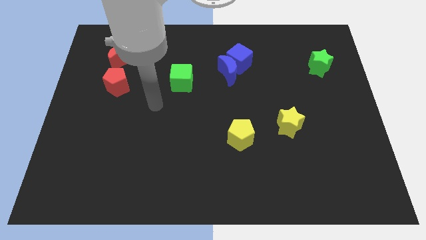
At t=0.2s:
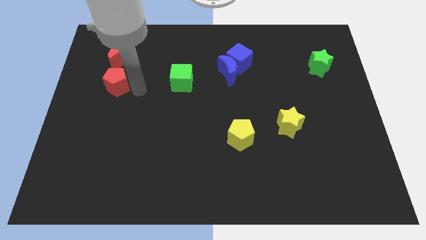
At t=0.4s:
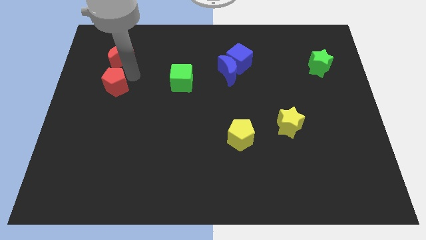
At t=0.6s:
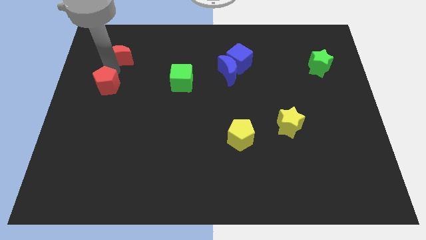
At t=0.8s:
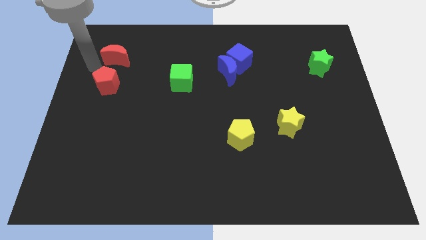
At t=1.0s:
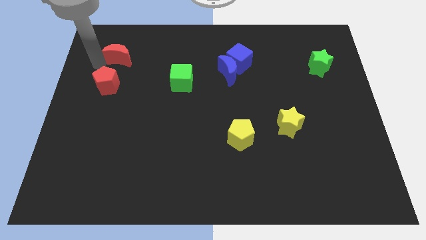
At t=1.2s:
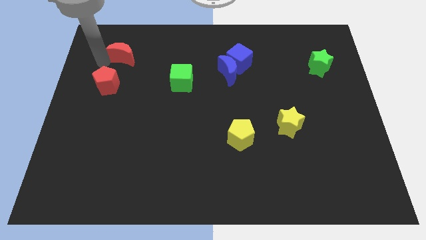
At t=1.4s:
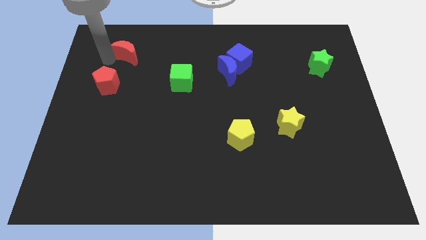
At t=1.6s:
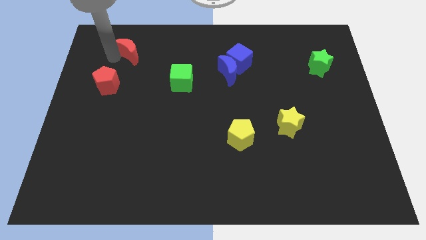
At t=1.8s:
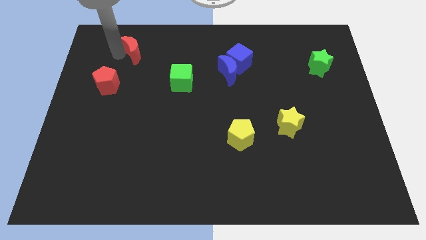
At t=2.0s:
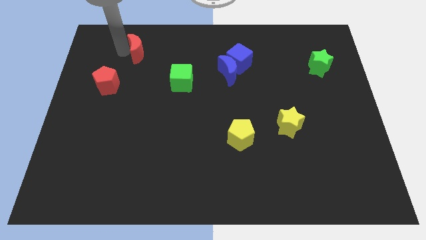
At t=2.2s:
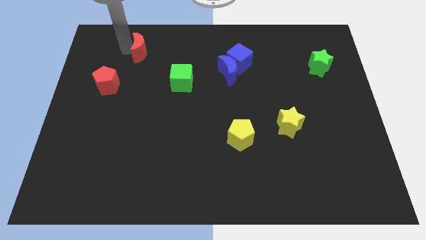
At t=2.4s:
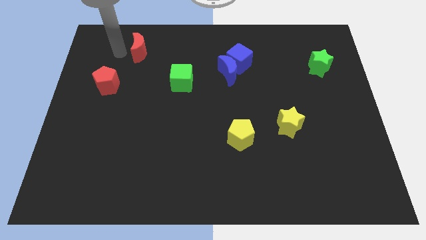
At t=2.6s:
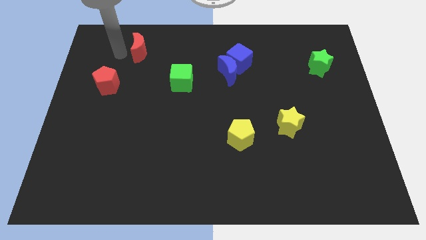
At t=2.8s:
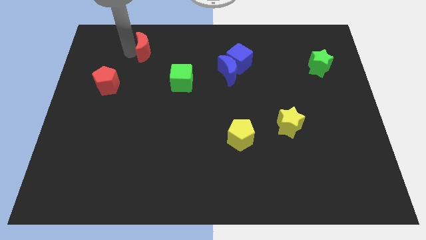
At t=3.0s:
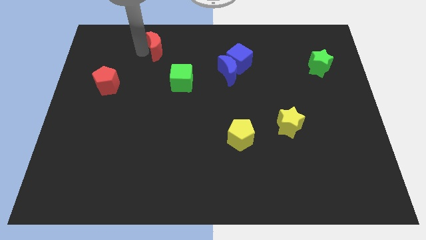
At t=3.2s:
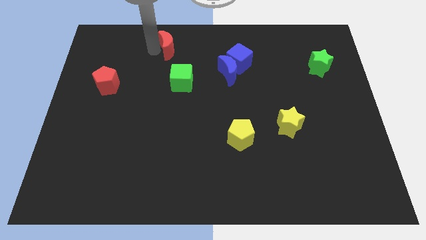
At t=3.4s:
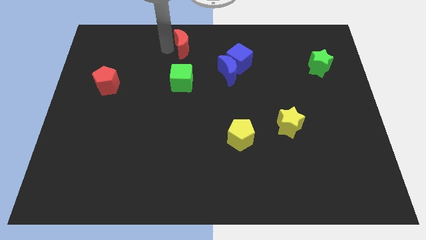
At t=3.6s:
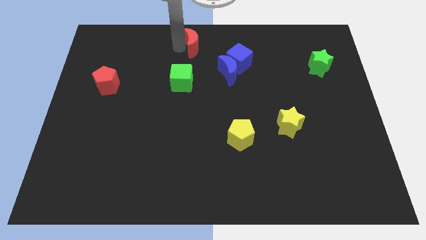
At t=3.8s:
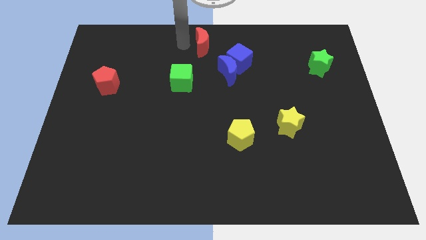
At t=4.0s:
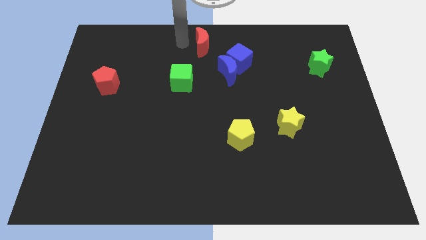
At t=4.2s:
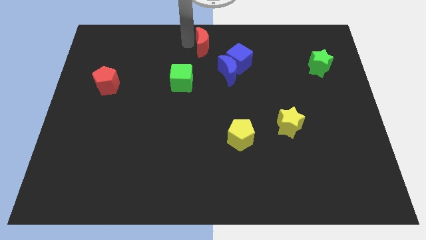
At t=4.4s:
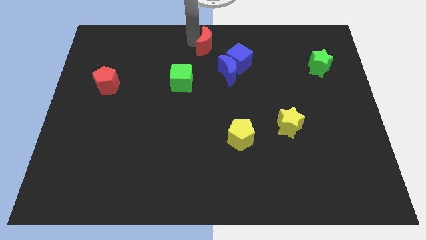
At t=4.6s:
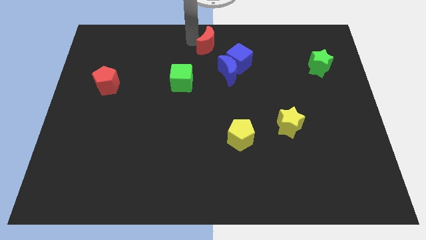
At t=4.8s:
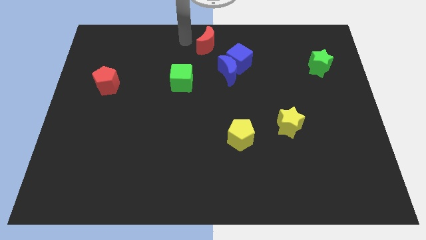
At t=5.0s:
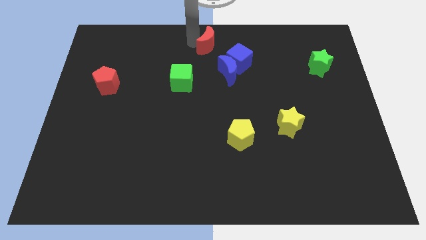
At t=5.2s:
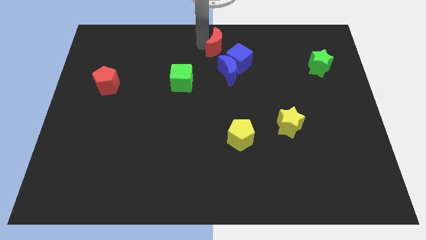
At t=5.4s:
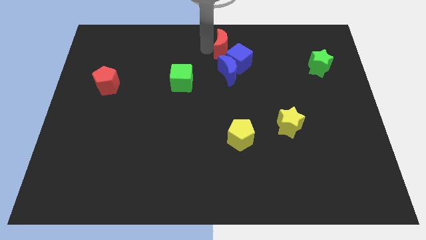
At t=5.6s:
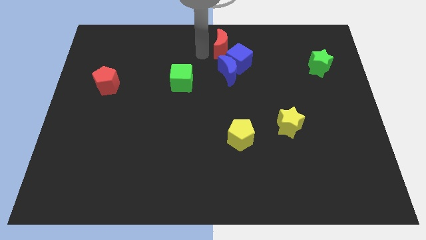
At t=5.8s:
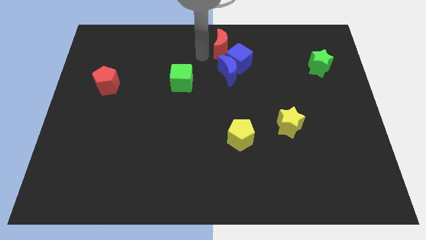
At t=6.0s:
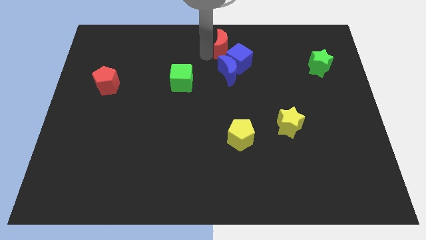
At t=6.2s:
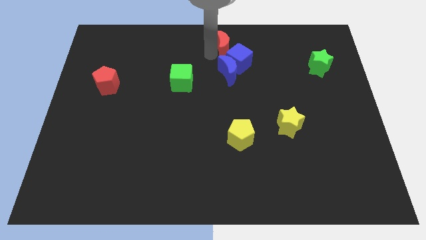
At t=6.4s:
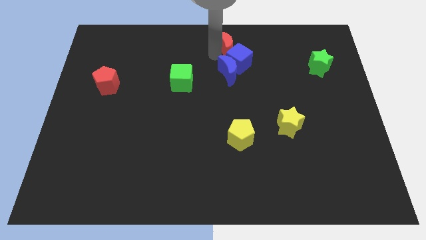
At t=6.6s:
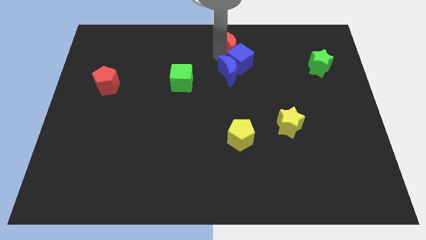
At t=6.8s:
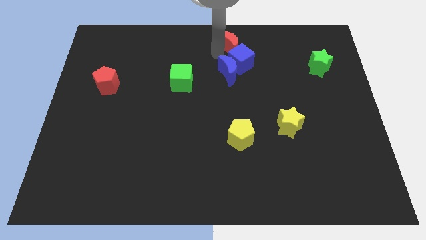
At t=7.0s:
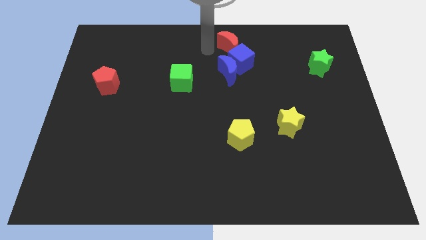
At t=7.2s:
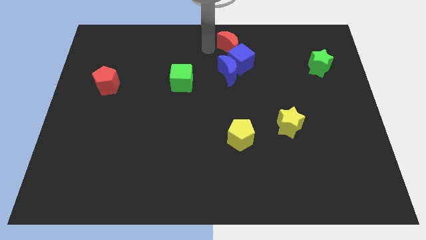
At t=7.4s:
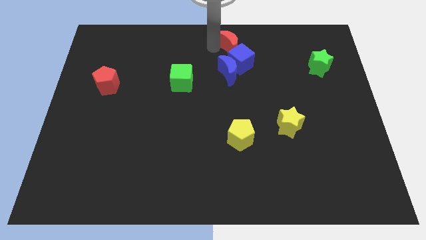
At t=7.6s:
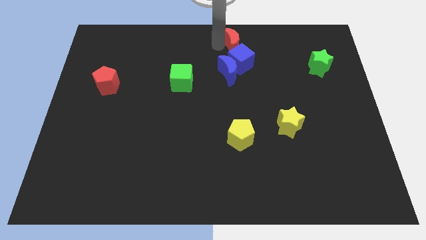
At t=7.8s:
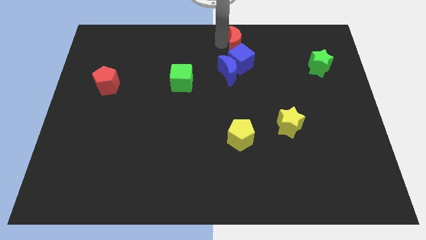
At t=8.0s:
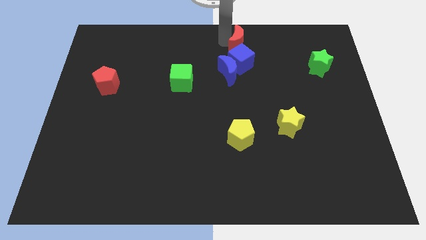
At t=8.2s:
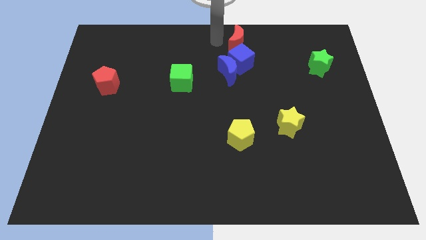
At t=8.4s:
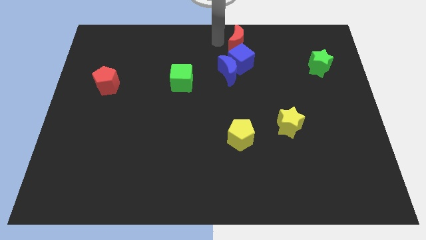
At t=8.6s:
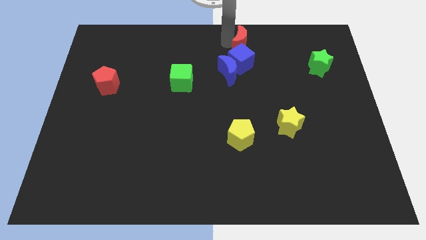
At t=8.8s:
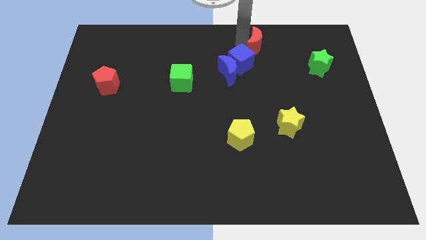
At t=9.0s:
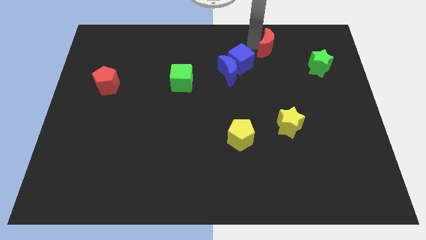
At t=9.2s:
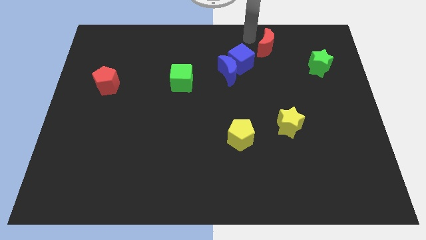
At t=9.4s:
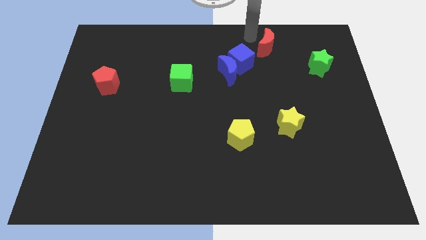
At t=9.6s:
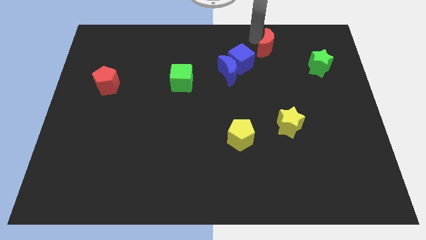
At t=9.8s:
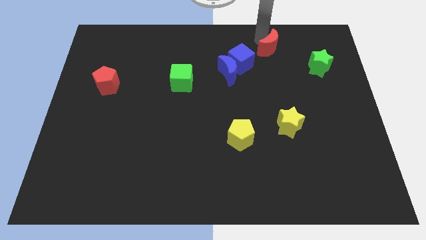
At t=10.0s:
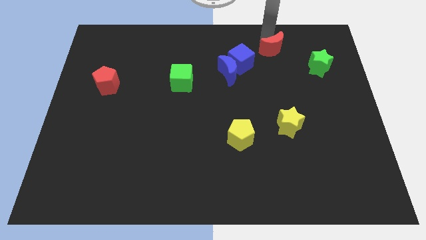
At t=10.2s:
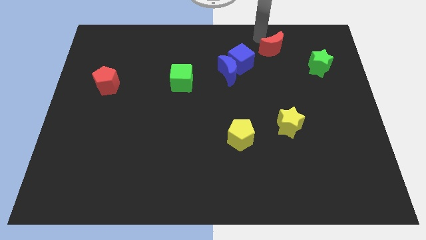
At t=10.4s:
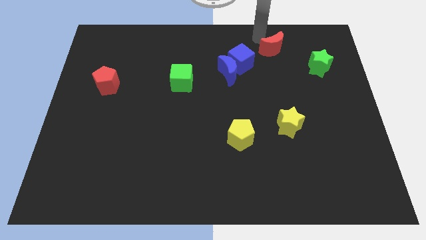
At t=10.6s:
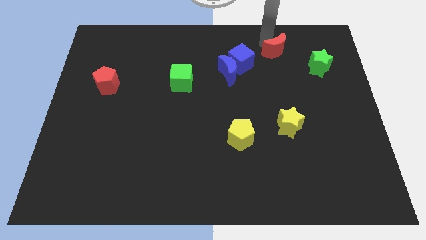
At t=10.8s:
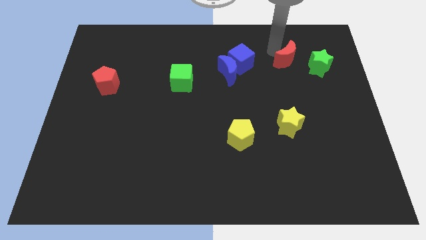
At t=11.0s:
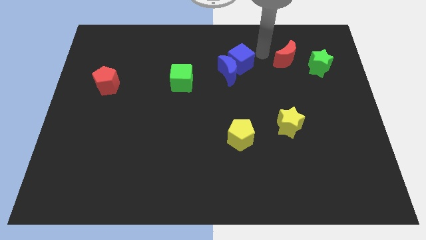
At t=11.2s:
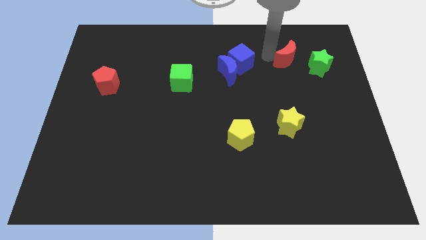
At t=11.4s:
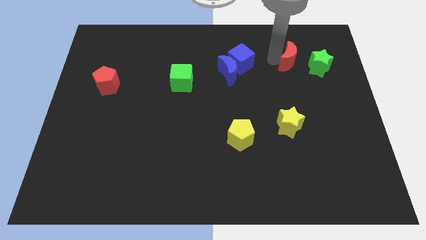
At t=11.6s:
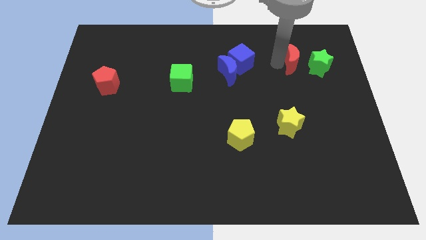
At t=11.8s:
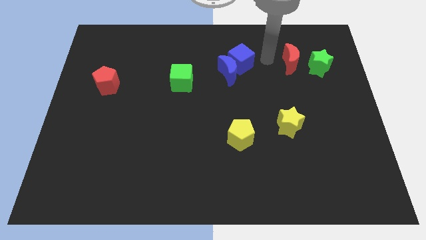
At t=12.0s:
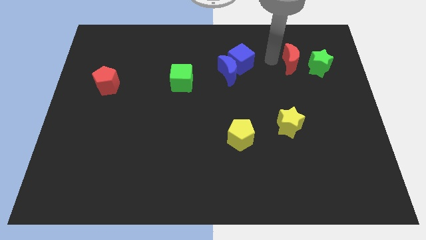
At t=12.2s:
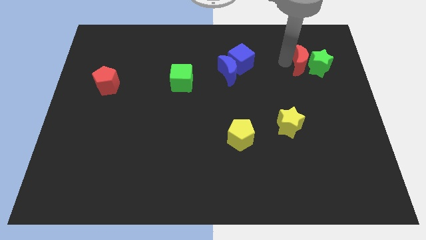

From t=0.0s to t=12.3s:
slide the red moon next to the green star
